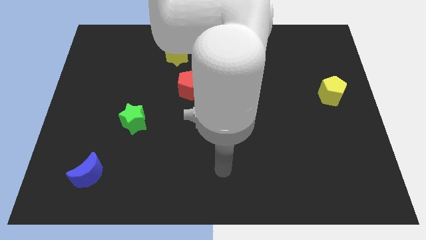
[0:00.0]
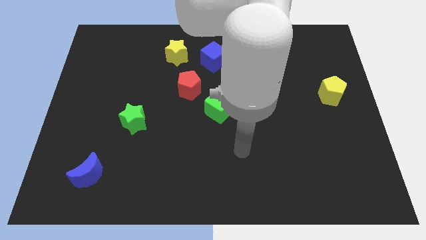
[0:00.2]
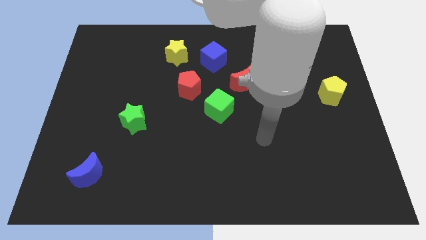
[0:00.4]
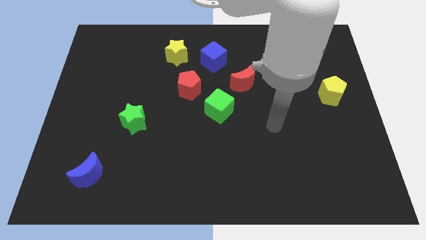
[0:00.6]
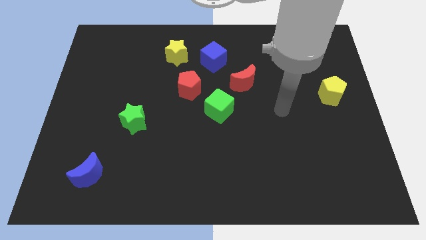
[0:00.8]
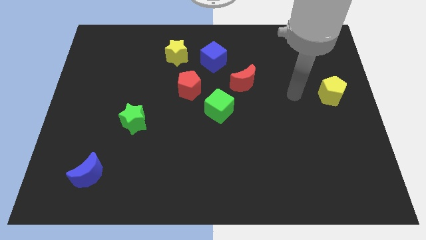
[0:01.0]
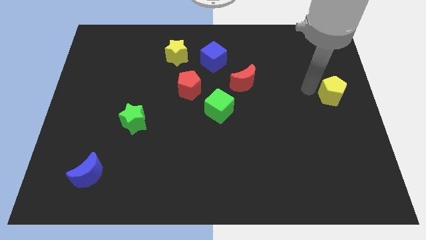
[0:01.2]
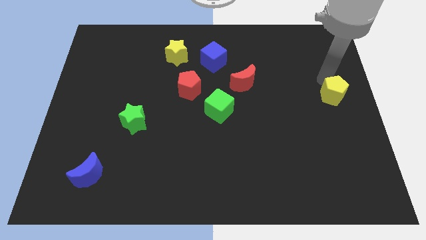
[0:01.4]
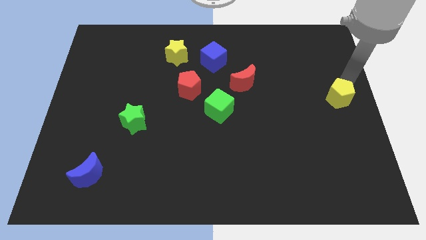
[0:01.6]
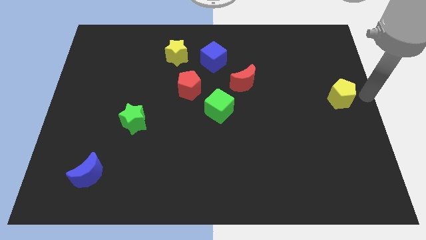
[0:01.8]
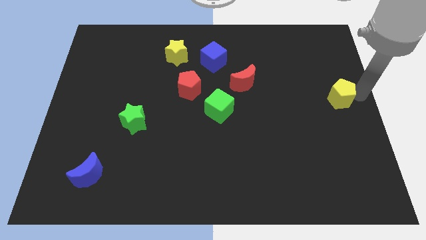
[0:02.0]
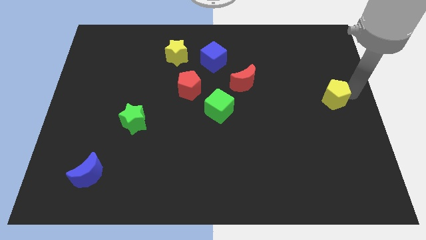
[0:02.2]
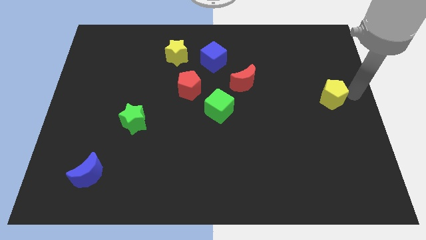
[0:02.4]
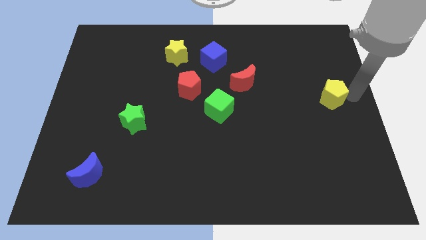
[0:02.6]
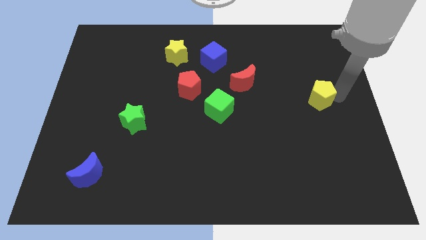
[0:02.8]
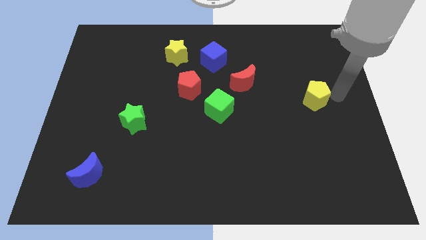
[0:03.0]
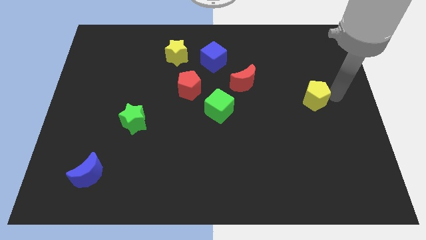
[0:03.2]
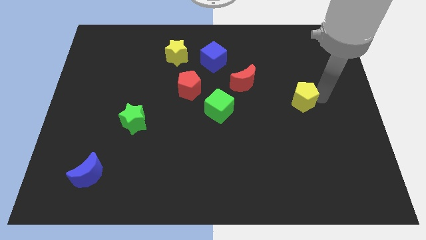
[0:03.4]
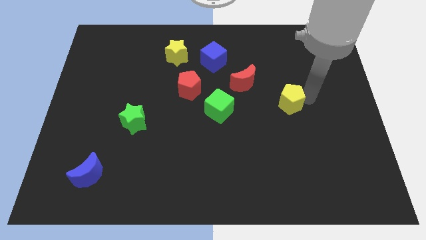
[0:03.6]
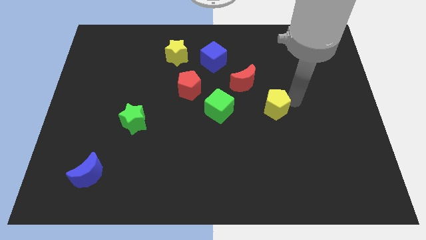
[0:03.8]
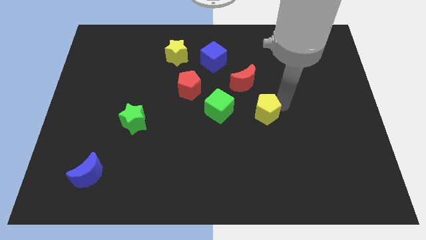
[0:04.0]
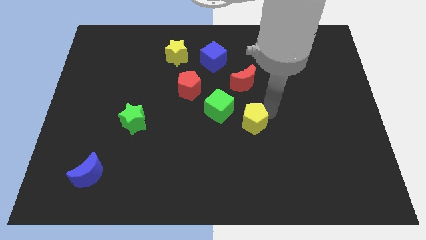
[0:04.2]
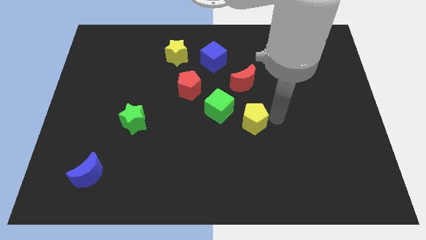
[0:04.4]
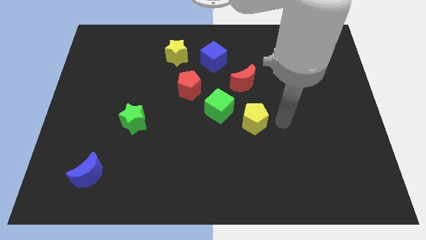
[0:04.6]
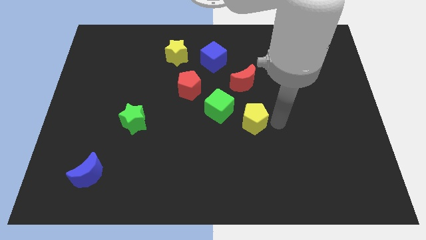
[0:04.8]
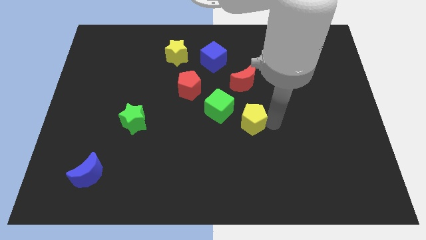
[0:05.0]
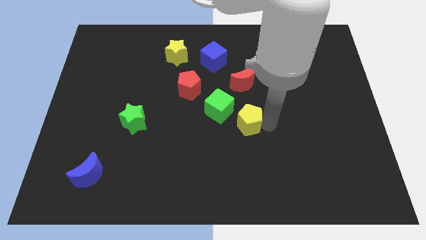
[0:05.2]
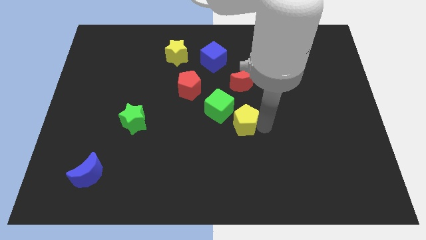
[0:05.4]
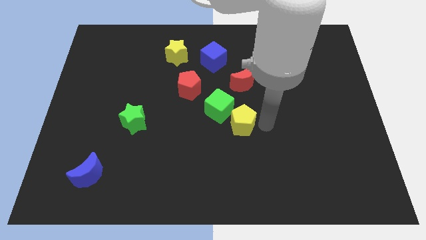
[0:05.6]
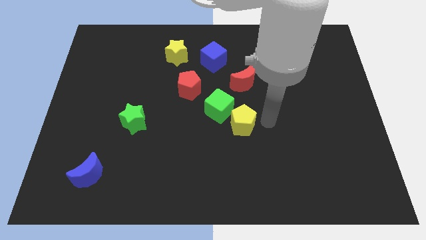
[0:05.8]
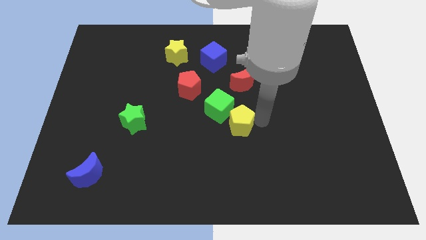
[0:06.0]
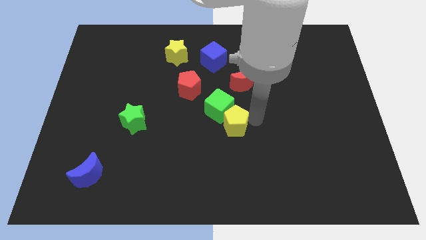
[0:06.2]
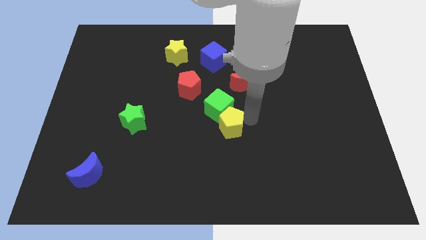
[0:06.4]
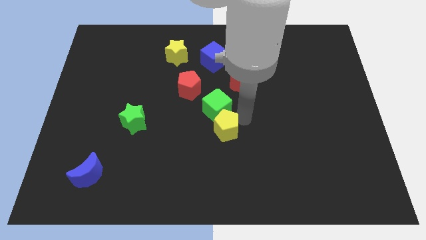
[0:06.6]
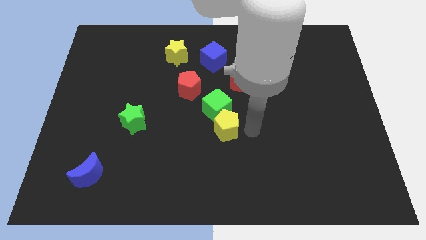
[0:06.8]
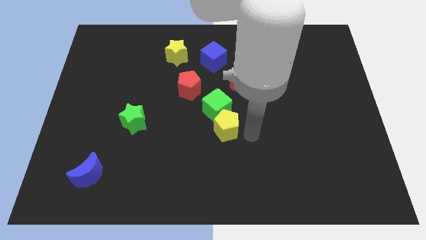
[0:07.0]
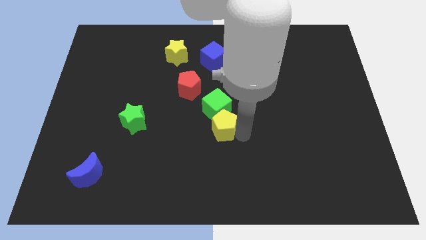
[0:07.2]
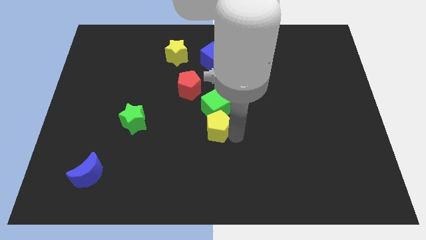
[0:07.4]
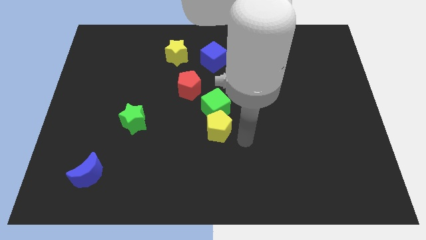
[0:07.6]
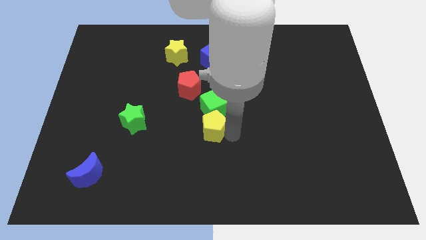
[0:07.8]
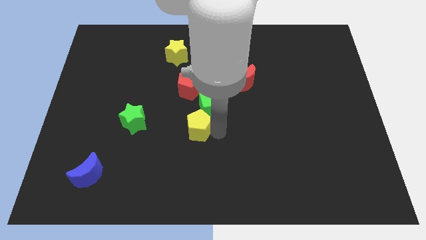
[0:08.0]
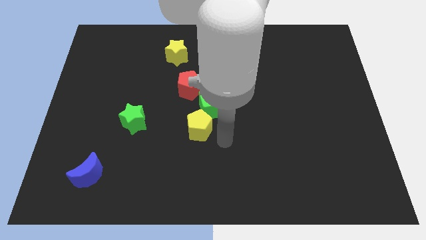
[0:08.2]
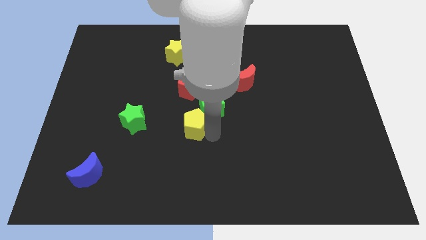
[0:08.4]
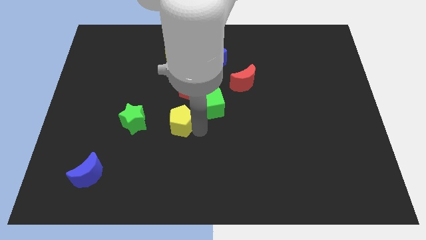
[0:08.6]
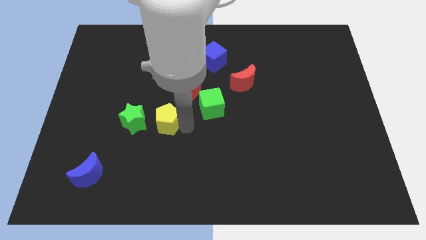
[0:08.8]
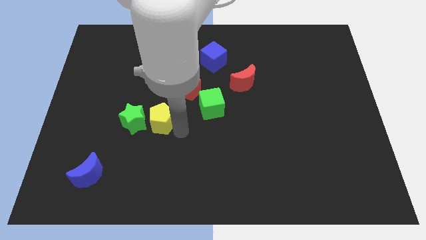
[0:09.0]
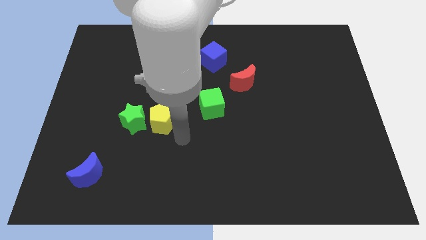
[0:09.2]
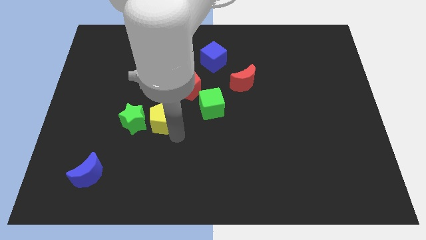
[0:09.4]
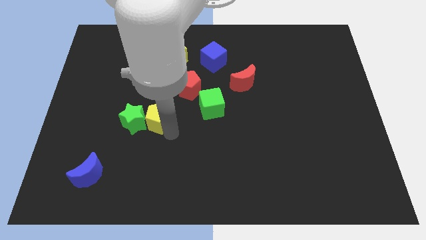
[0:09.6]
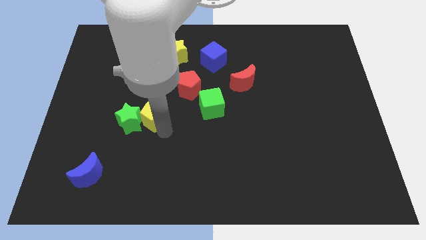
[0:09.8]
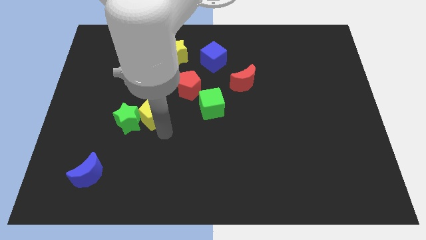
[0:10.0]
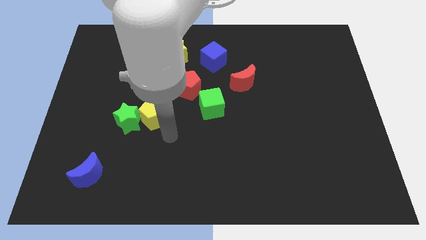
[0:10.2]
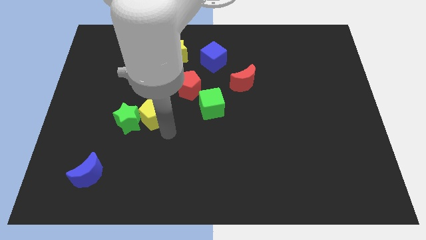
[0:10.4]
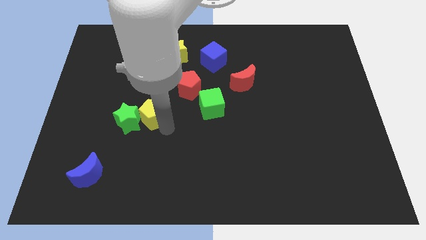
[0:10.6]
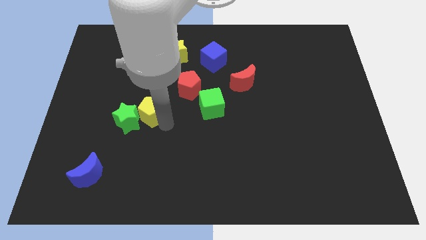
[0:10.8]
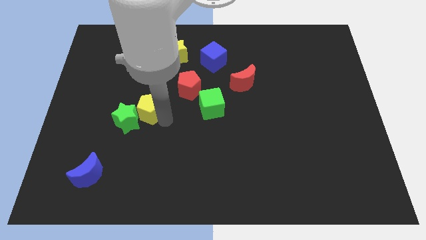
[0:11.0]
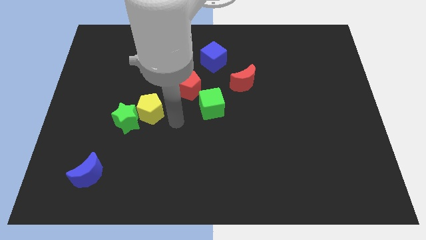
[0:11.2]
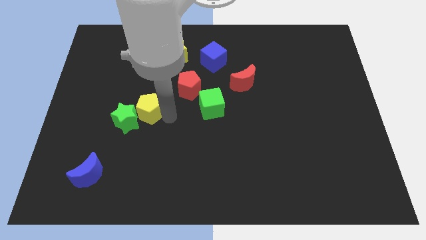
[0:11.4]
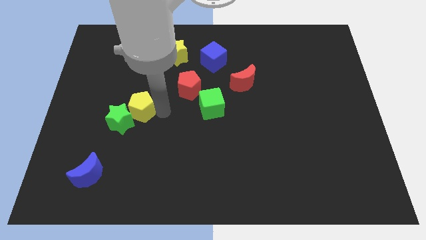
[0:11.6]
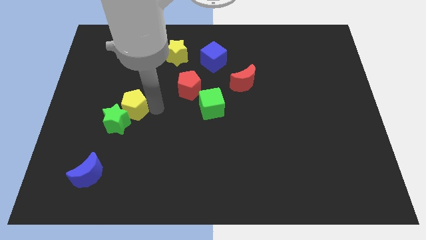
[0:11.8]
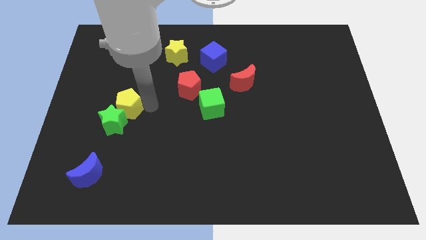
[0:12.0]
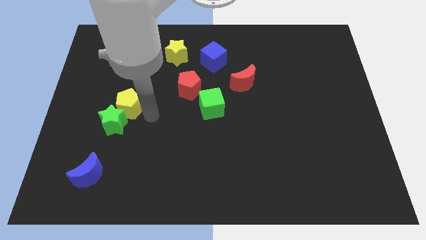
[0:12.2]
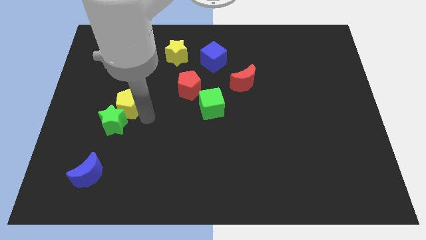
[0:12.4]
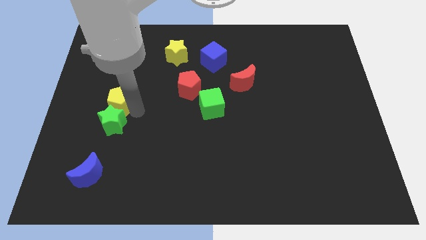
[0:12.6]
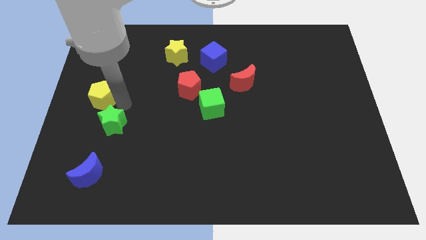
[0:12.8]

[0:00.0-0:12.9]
slide the yellow pentagon to the center left

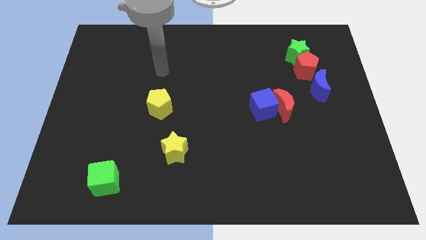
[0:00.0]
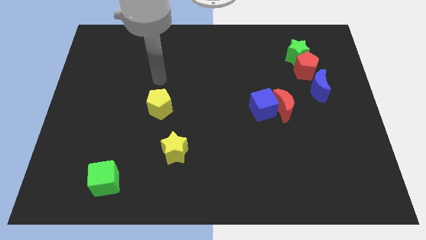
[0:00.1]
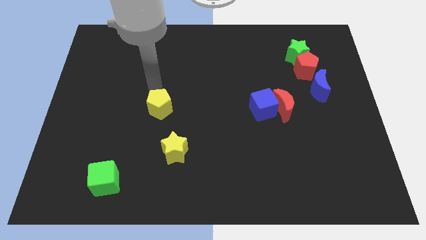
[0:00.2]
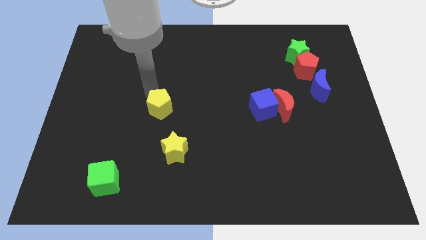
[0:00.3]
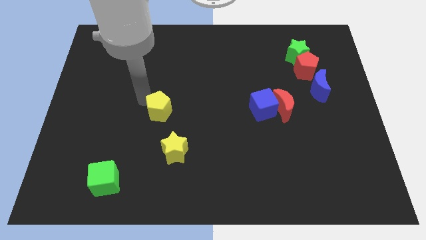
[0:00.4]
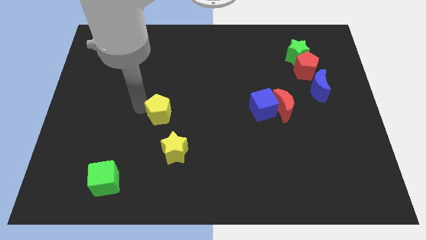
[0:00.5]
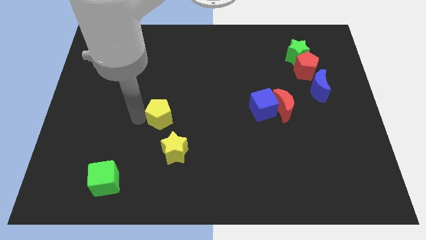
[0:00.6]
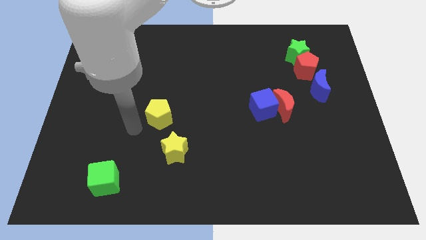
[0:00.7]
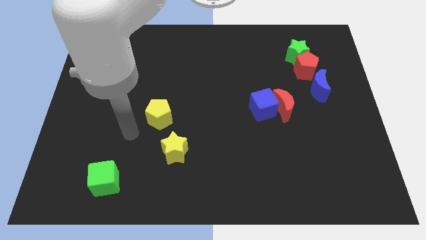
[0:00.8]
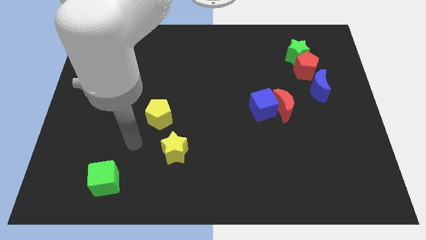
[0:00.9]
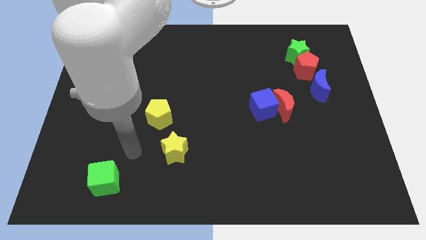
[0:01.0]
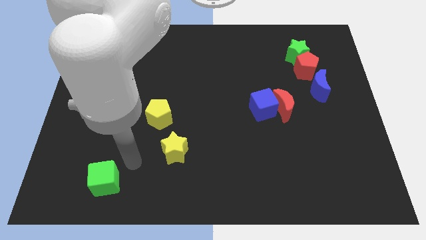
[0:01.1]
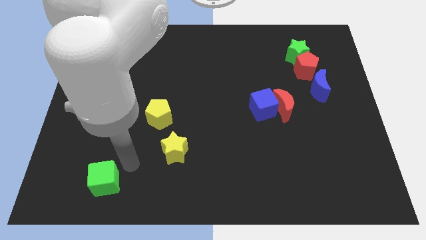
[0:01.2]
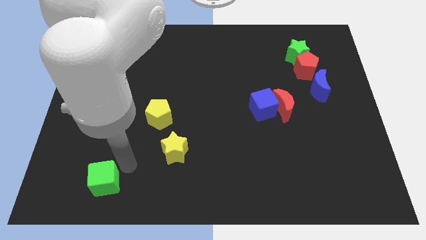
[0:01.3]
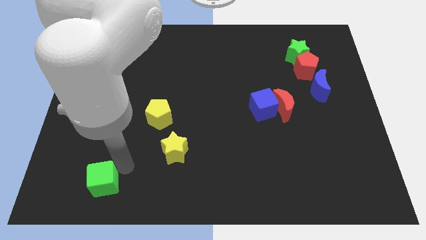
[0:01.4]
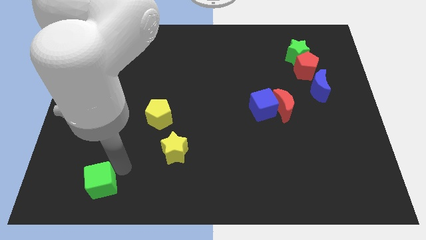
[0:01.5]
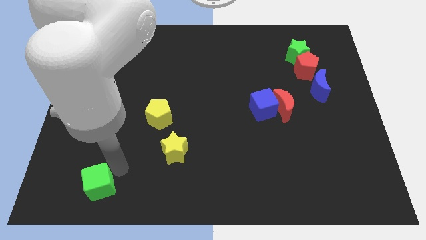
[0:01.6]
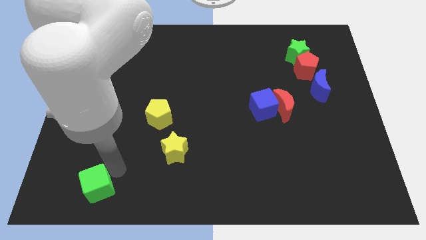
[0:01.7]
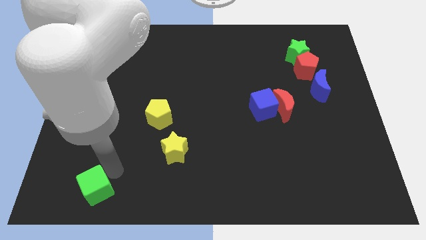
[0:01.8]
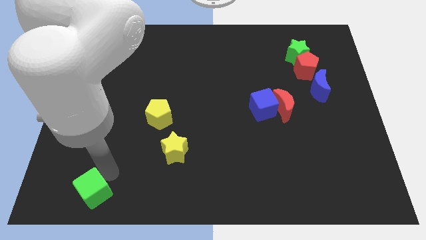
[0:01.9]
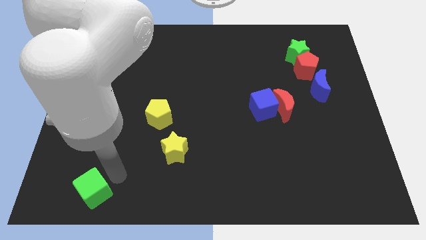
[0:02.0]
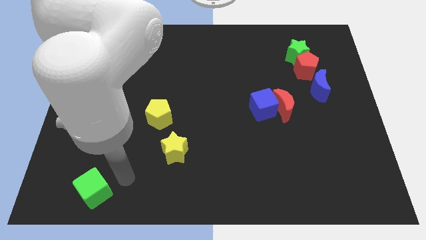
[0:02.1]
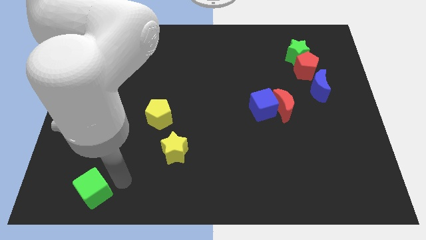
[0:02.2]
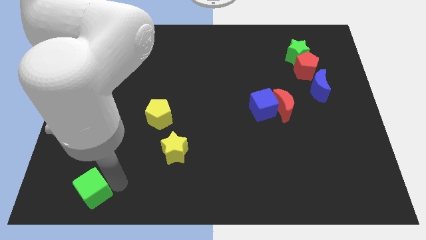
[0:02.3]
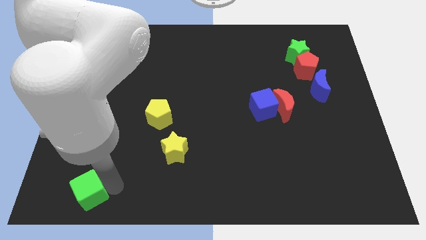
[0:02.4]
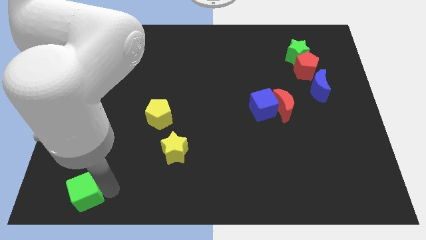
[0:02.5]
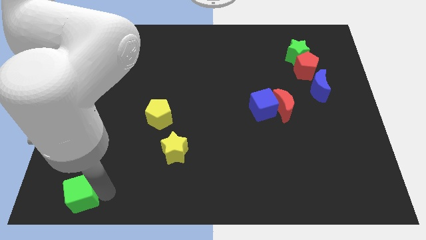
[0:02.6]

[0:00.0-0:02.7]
slide the green cube to the bottom left of the board
